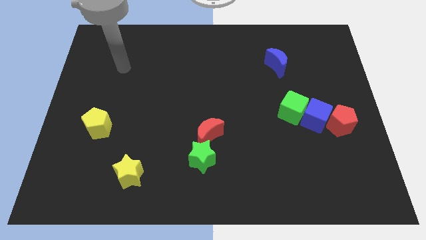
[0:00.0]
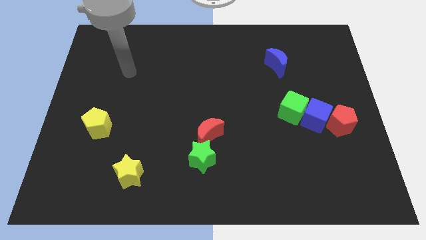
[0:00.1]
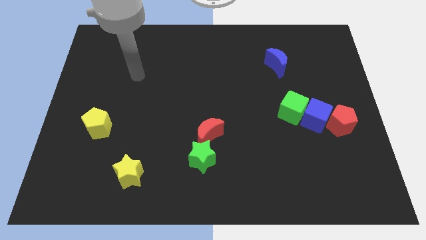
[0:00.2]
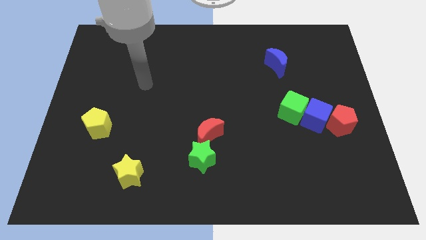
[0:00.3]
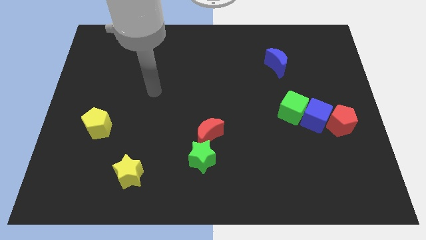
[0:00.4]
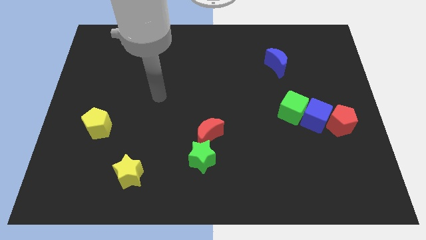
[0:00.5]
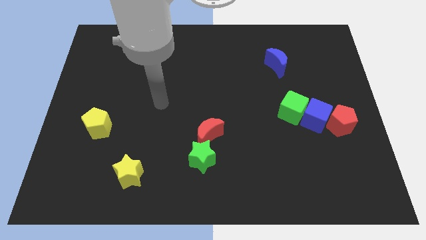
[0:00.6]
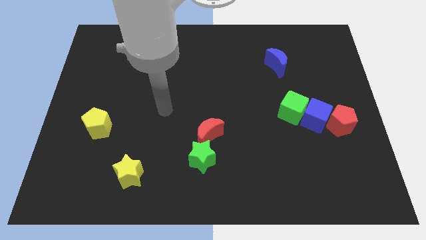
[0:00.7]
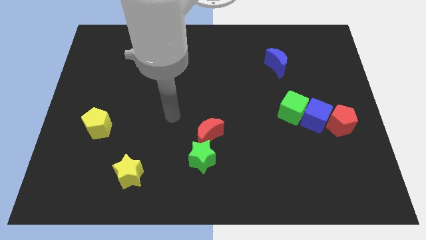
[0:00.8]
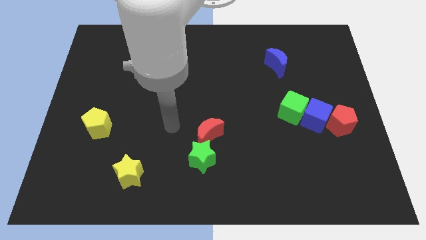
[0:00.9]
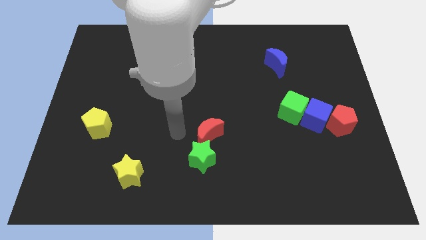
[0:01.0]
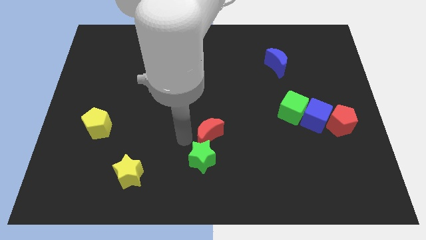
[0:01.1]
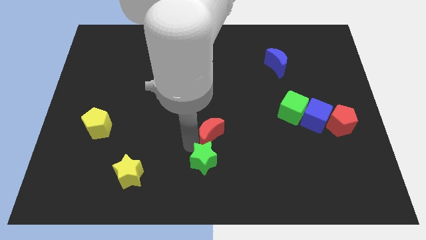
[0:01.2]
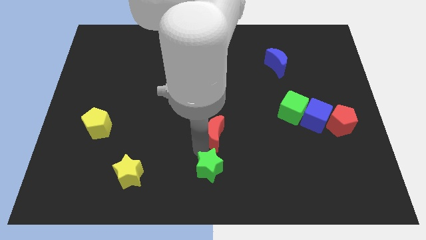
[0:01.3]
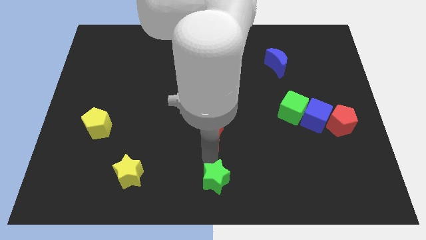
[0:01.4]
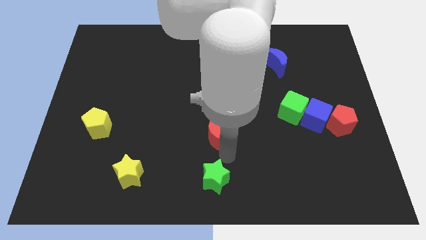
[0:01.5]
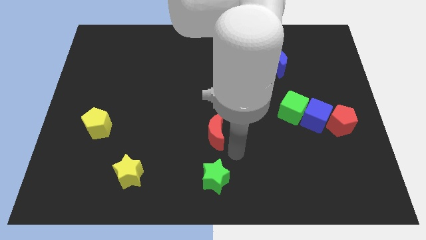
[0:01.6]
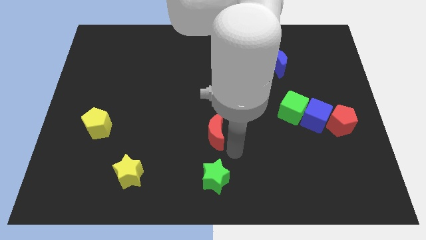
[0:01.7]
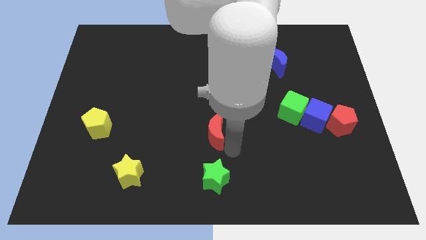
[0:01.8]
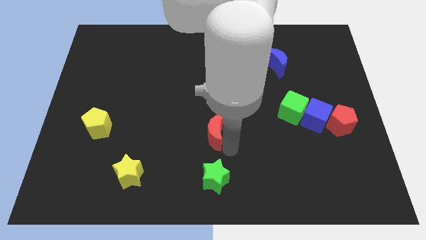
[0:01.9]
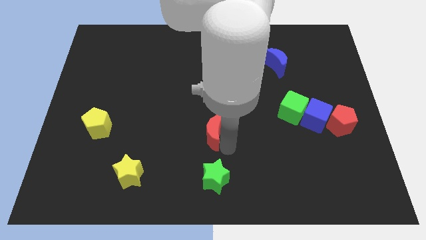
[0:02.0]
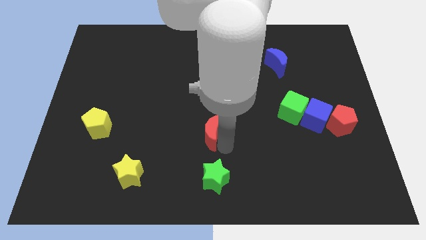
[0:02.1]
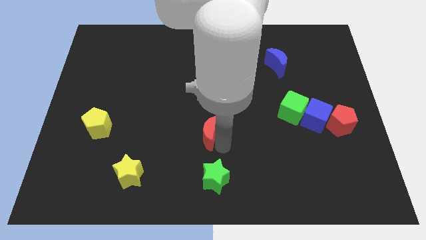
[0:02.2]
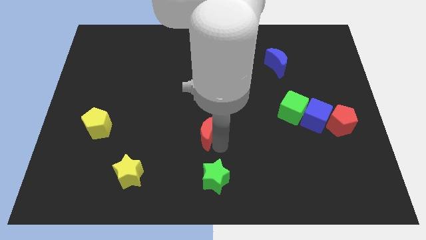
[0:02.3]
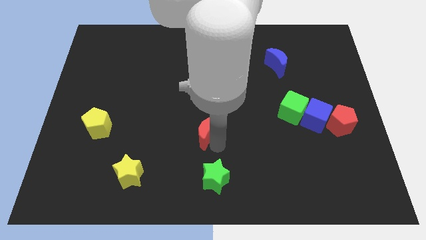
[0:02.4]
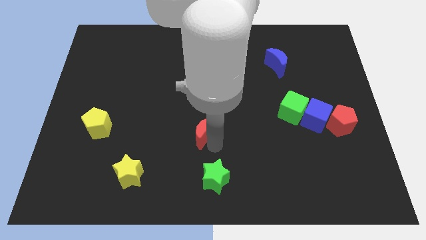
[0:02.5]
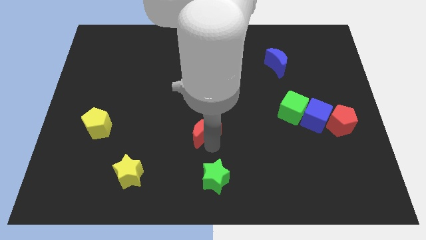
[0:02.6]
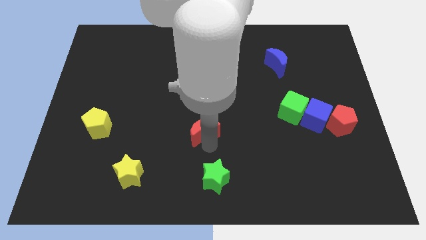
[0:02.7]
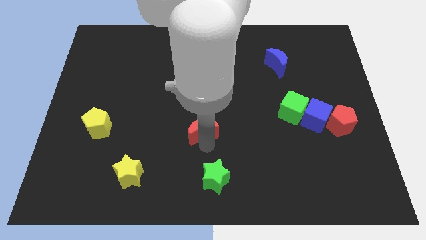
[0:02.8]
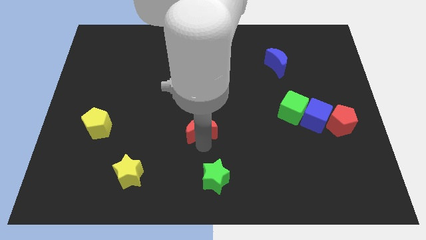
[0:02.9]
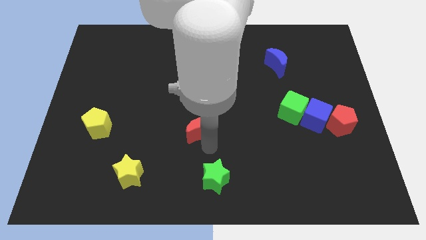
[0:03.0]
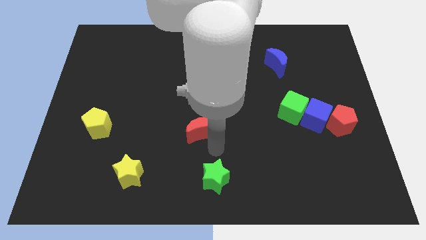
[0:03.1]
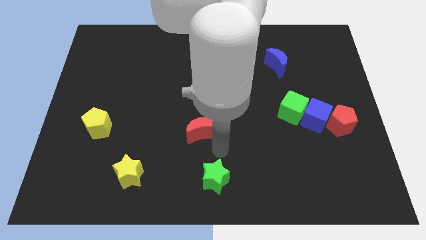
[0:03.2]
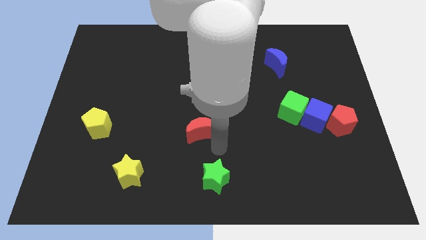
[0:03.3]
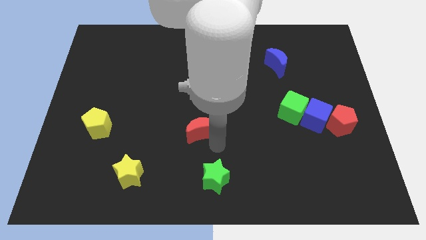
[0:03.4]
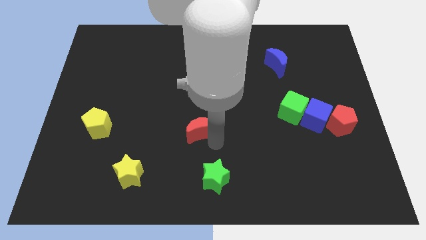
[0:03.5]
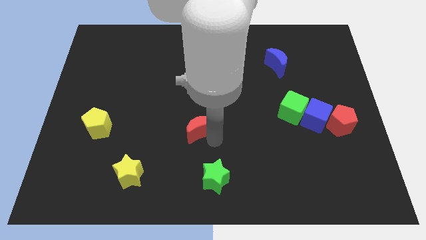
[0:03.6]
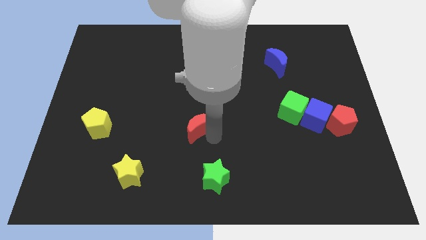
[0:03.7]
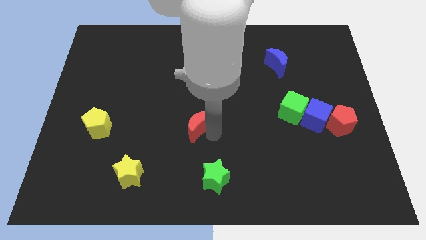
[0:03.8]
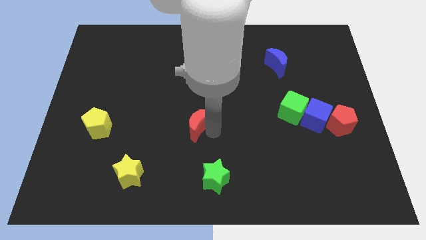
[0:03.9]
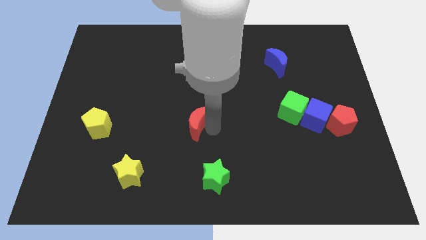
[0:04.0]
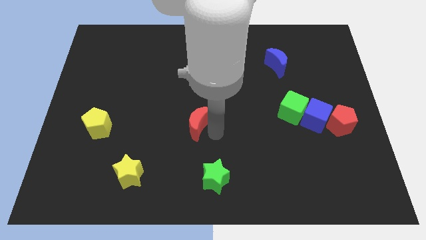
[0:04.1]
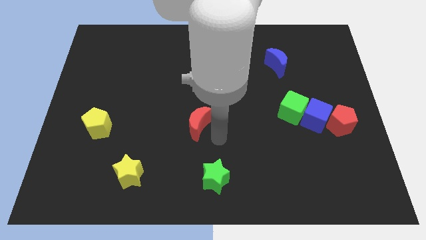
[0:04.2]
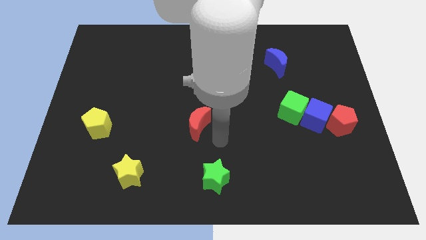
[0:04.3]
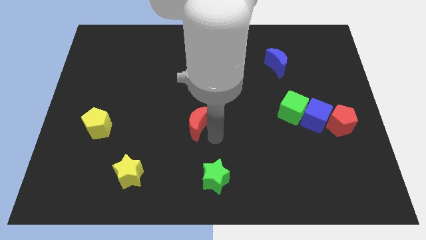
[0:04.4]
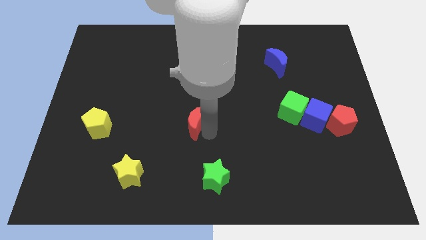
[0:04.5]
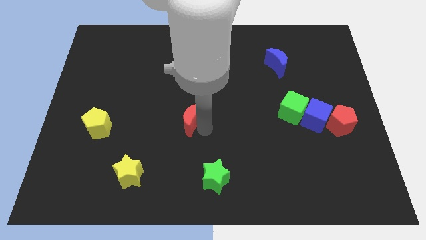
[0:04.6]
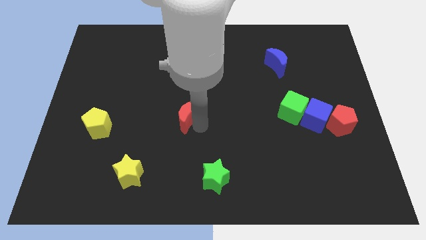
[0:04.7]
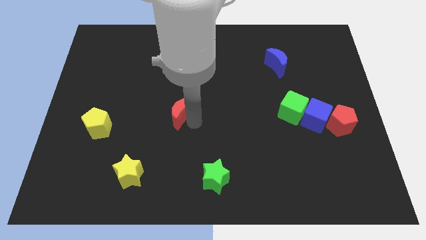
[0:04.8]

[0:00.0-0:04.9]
slide the red moon somewhat upwards and left diagonally

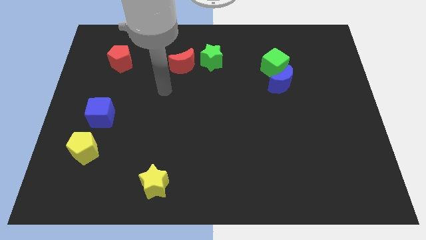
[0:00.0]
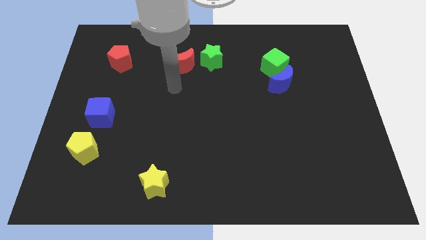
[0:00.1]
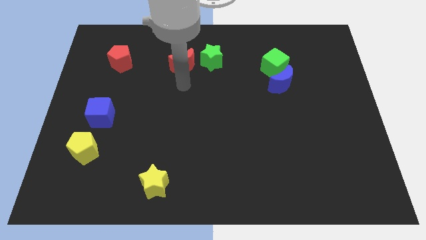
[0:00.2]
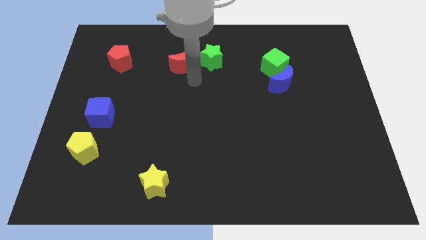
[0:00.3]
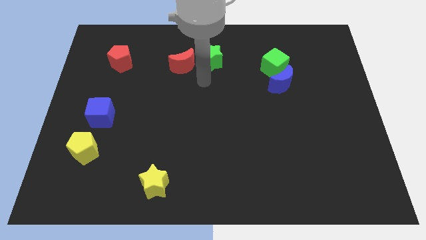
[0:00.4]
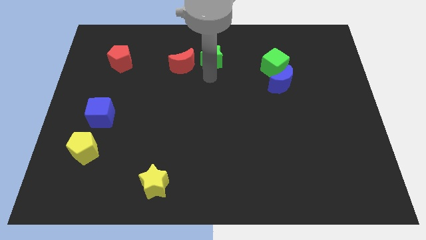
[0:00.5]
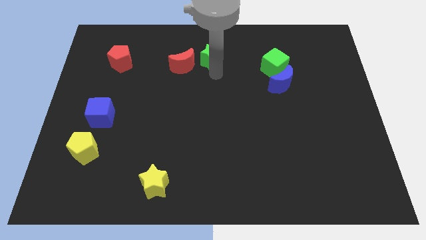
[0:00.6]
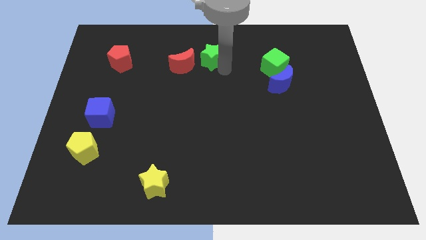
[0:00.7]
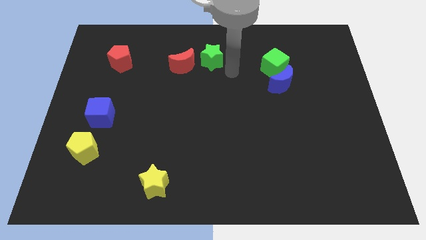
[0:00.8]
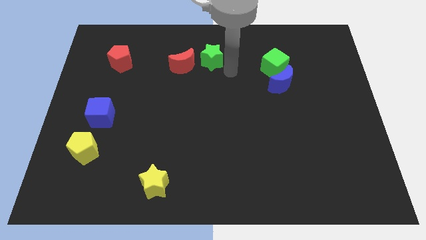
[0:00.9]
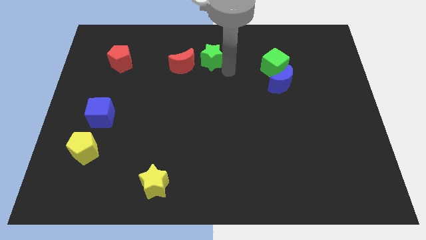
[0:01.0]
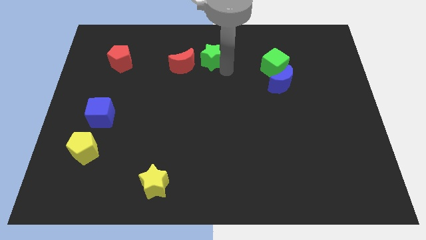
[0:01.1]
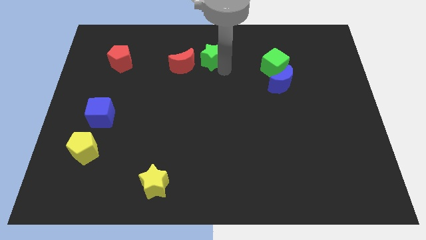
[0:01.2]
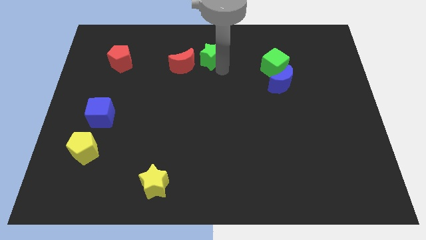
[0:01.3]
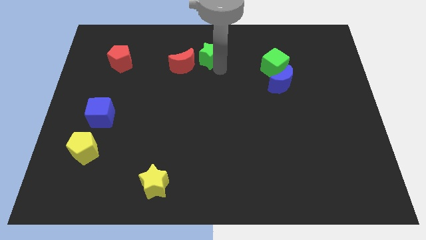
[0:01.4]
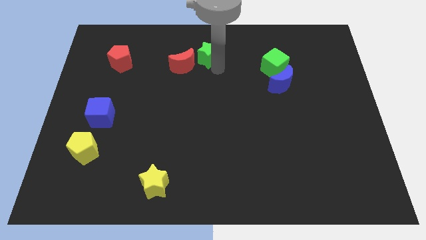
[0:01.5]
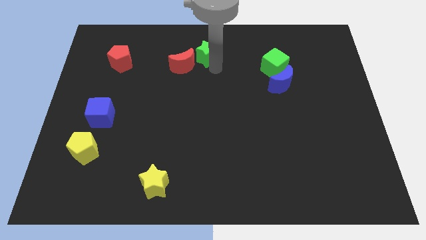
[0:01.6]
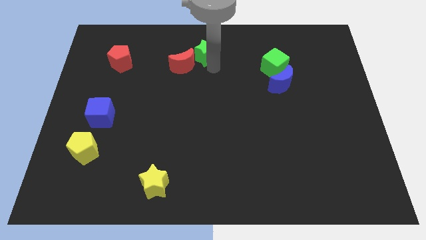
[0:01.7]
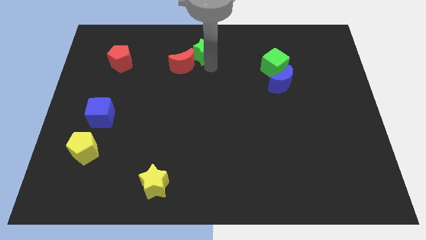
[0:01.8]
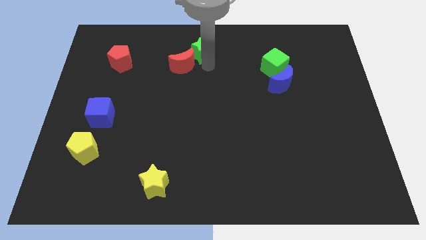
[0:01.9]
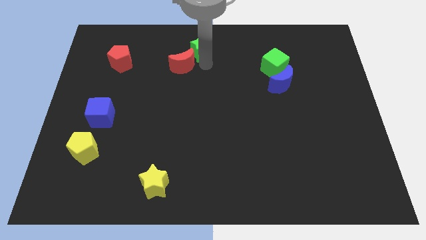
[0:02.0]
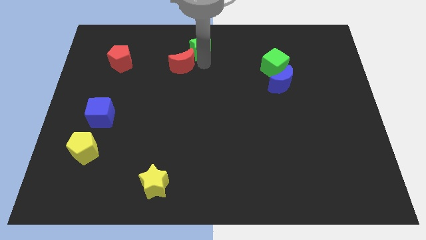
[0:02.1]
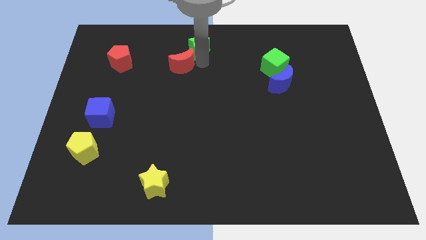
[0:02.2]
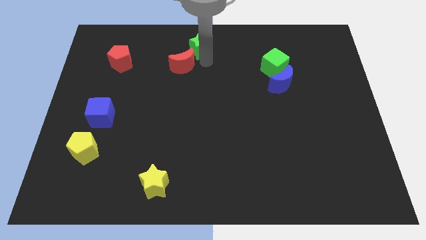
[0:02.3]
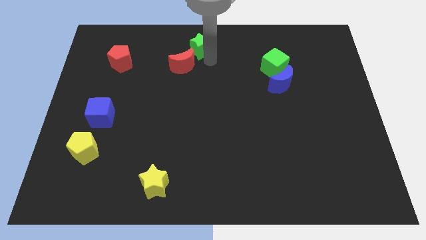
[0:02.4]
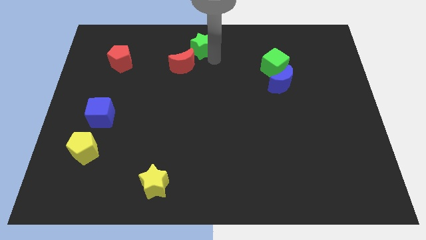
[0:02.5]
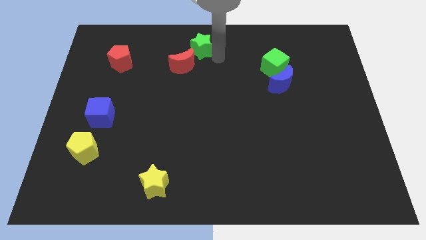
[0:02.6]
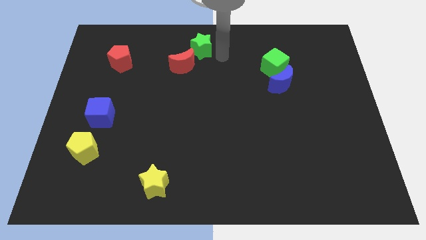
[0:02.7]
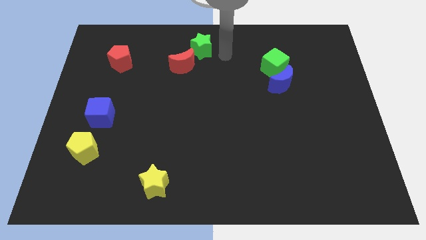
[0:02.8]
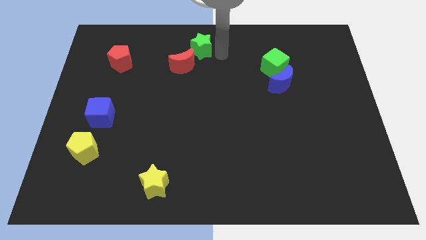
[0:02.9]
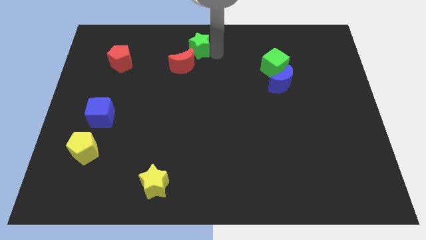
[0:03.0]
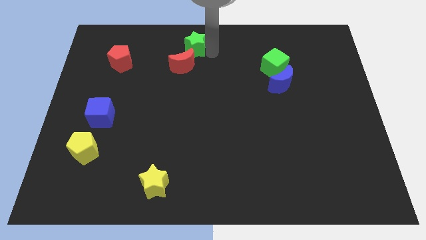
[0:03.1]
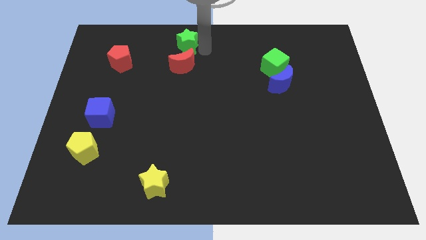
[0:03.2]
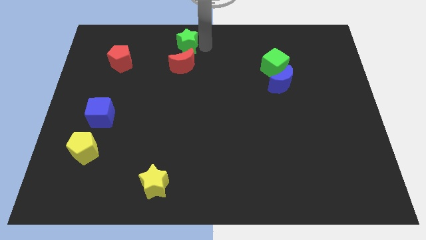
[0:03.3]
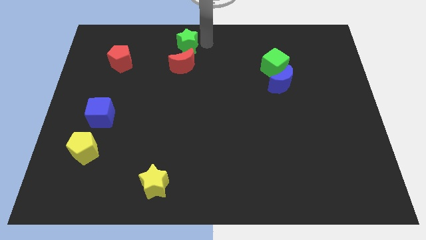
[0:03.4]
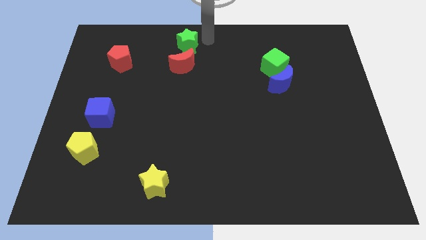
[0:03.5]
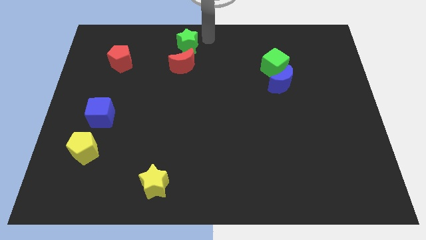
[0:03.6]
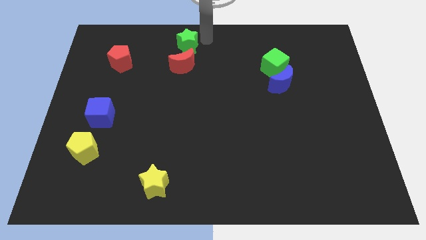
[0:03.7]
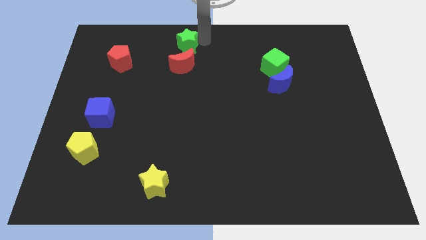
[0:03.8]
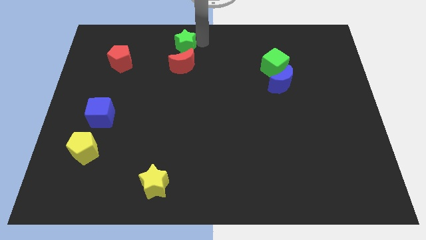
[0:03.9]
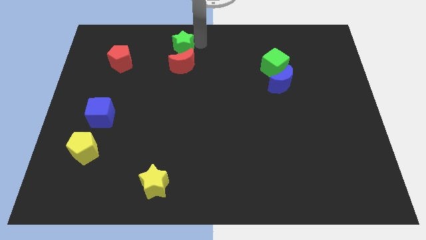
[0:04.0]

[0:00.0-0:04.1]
move the green star a bit to the left
